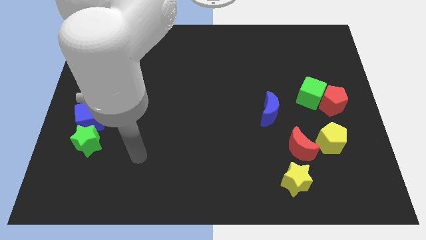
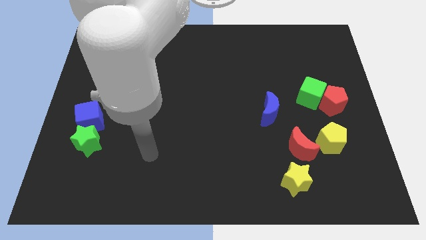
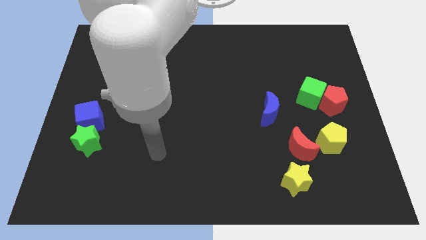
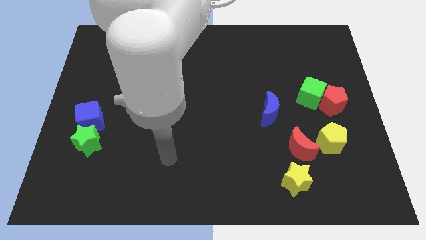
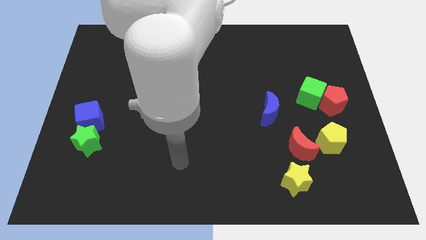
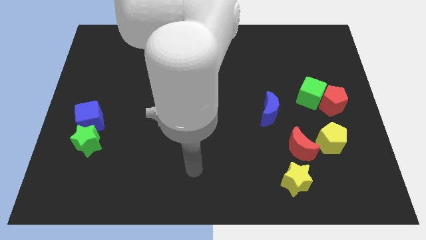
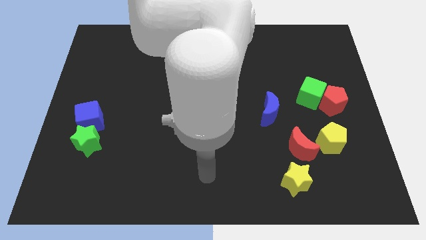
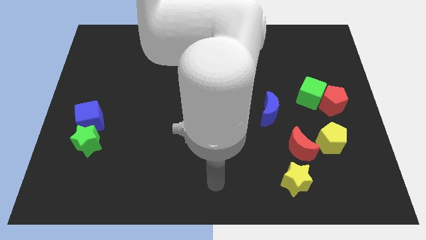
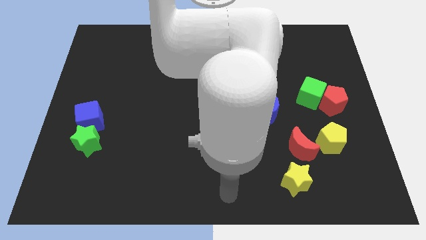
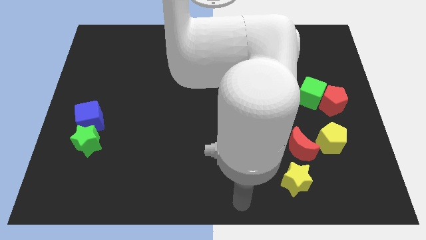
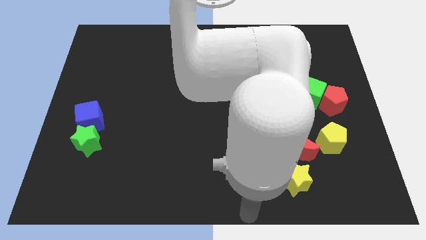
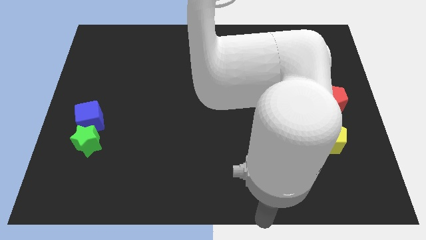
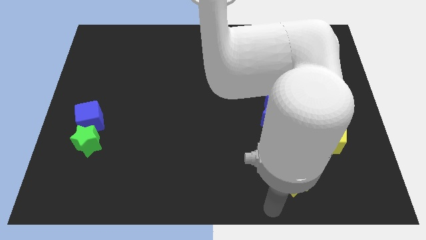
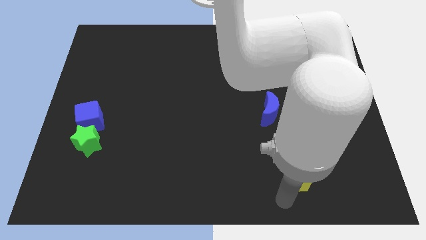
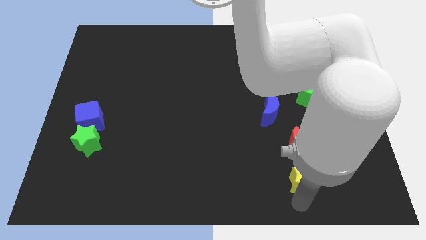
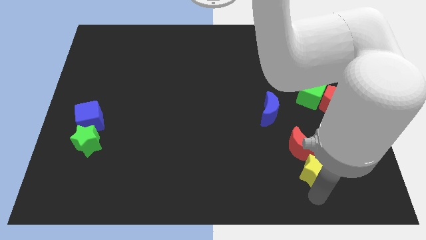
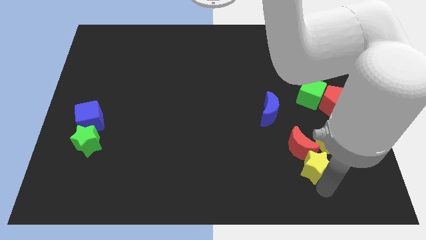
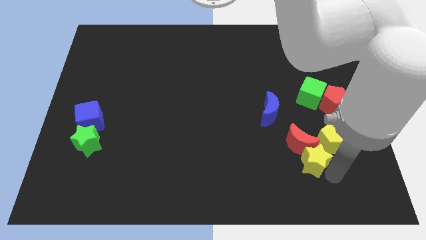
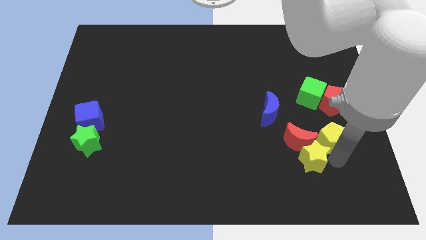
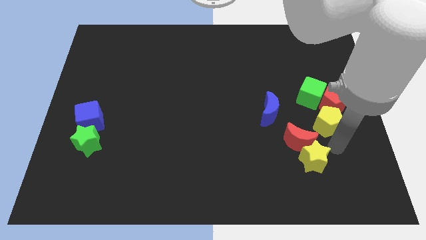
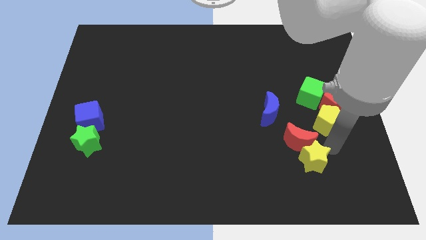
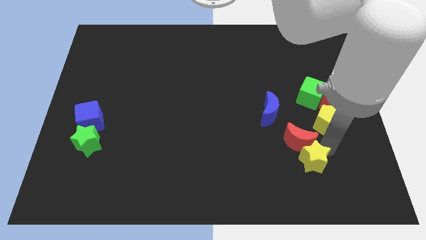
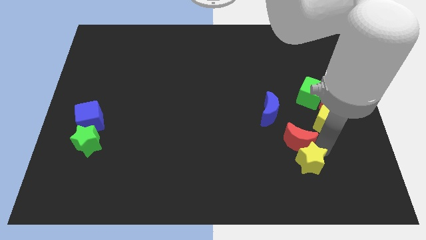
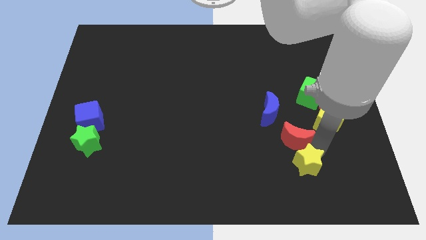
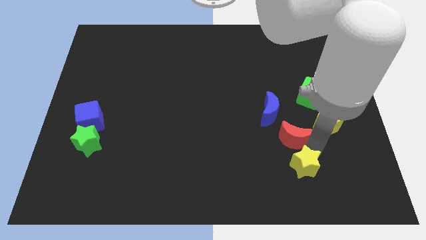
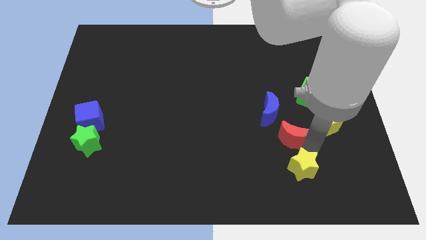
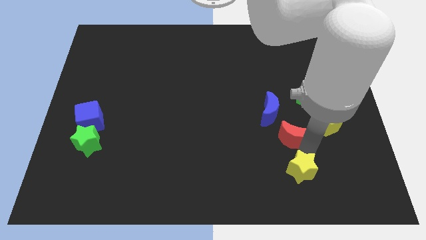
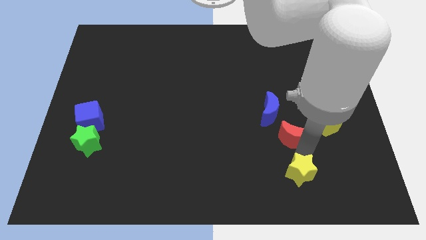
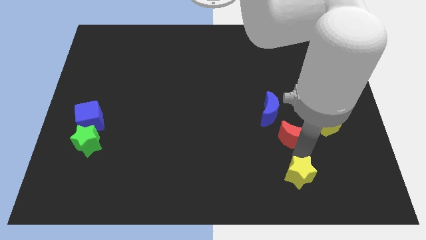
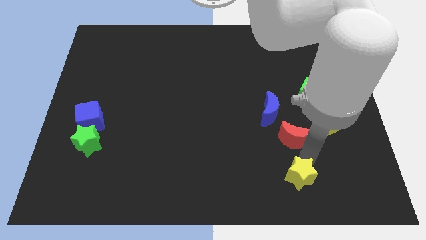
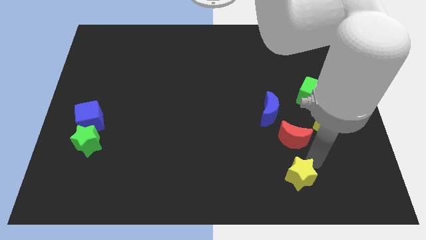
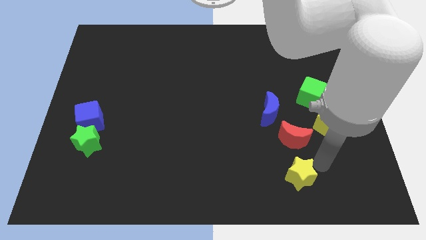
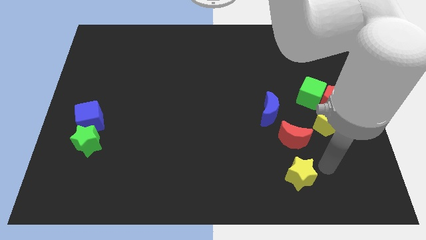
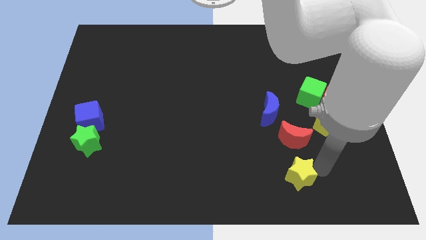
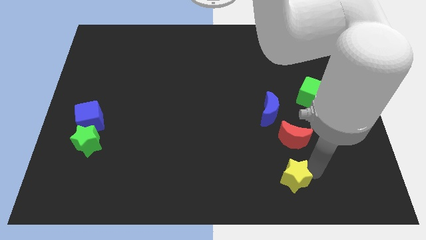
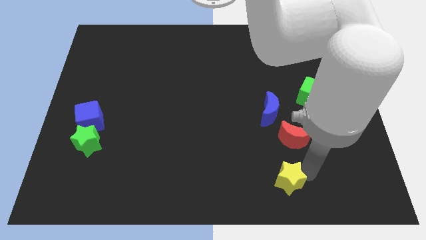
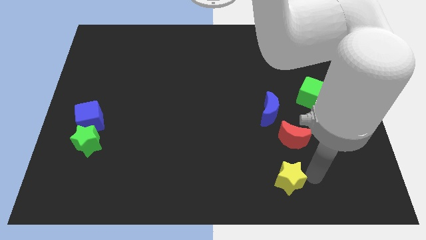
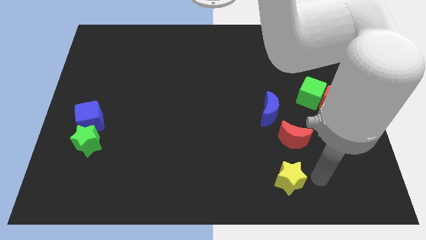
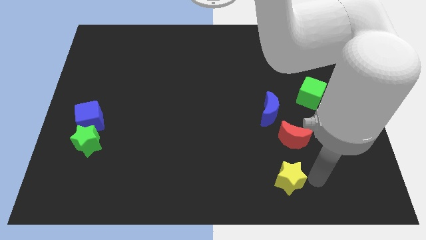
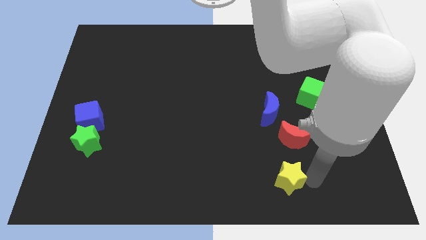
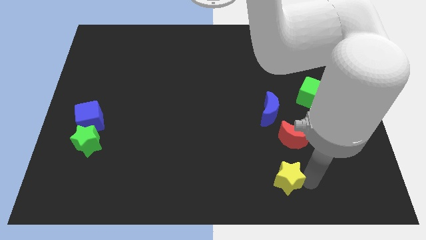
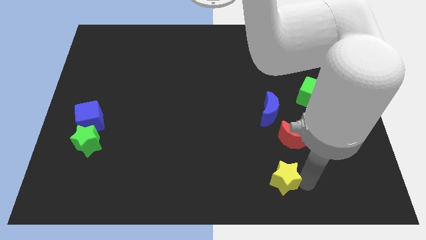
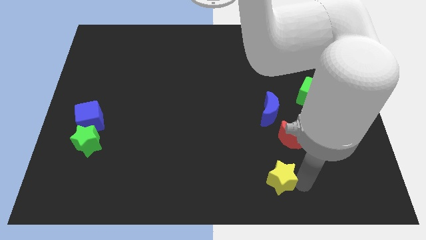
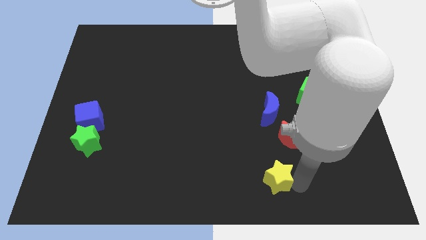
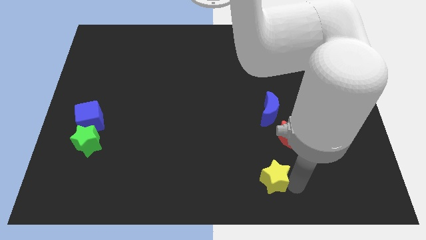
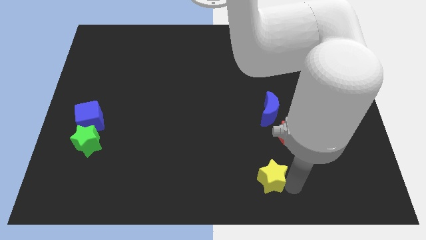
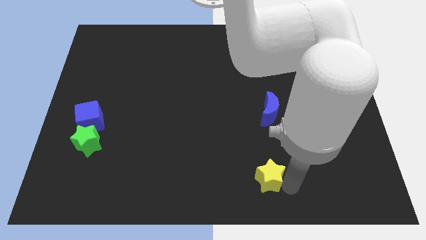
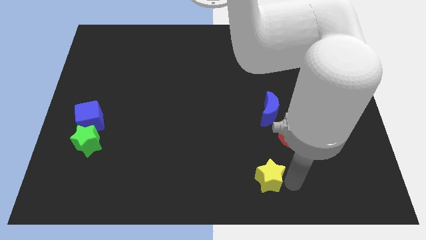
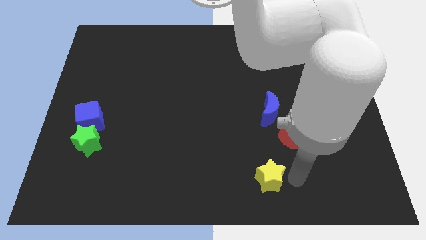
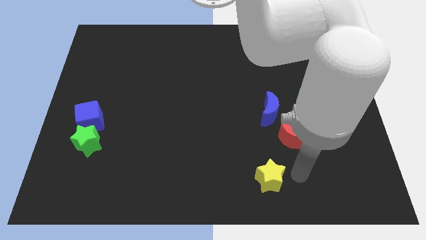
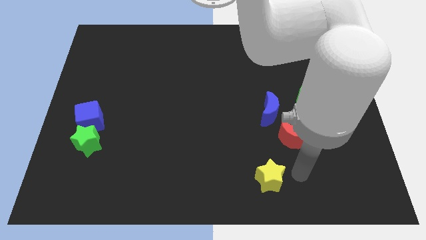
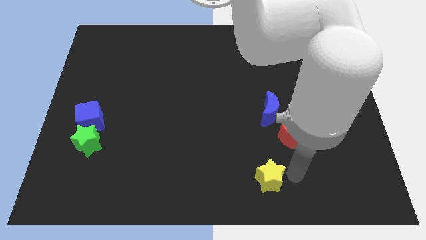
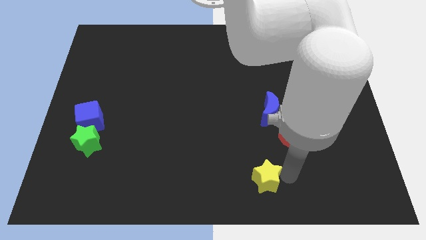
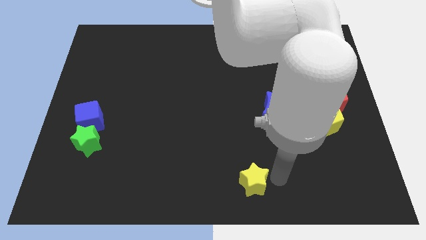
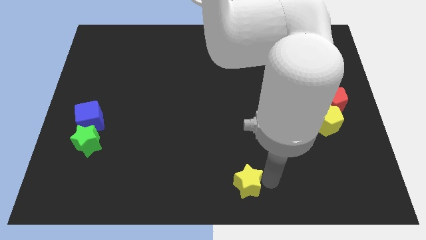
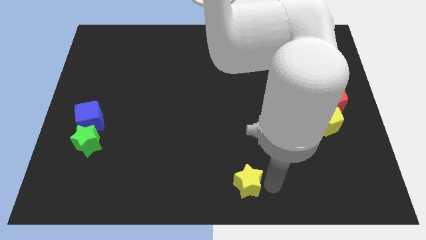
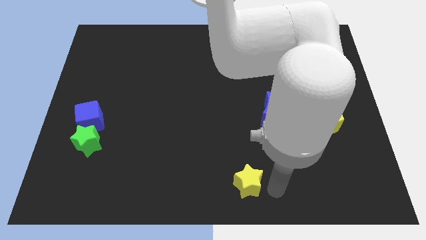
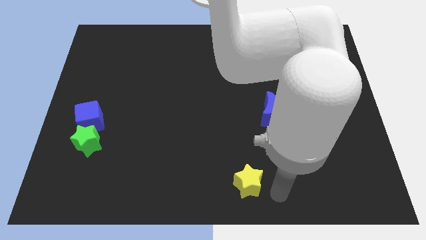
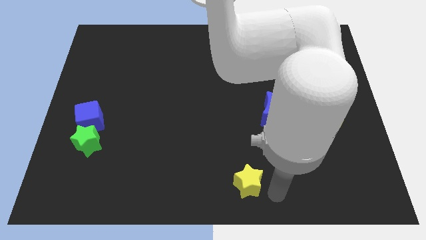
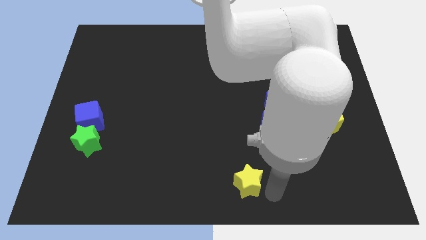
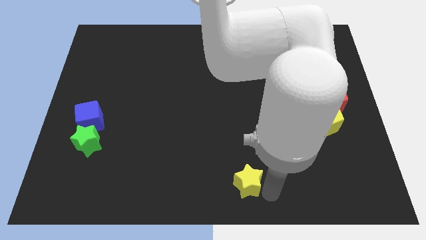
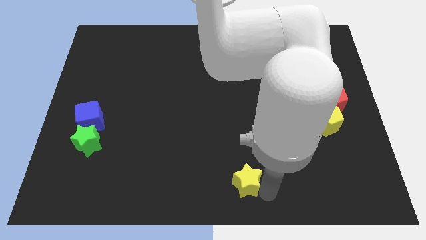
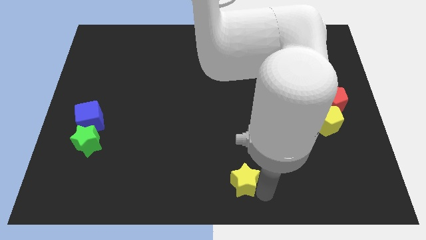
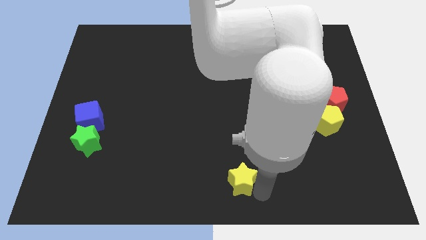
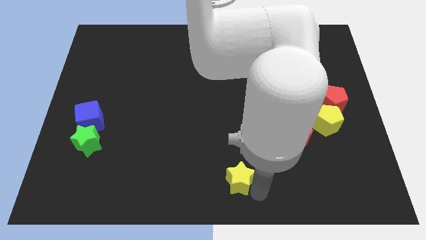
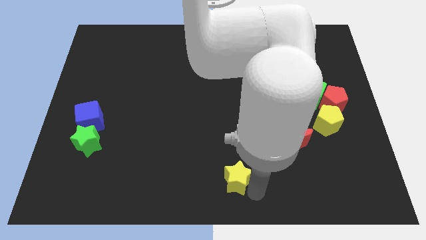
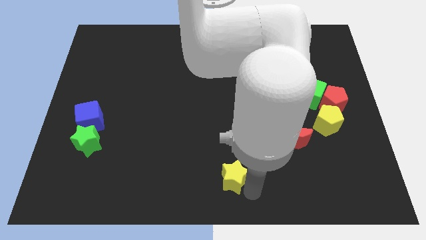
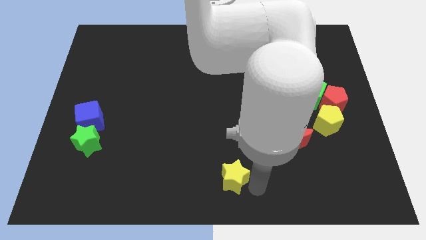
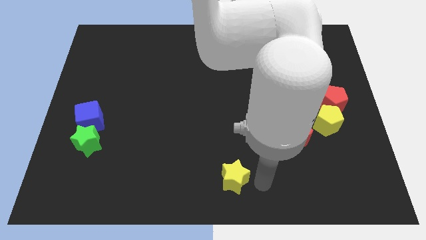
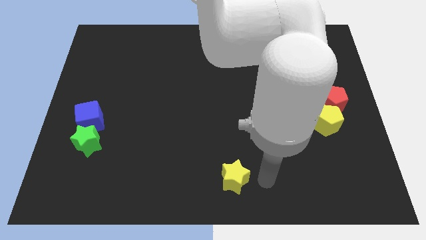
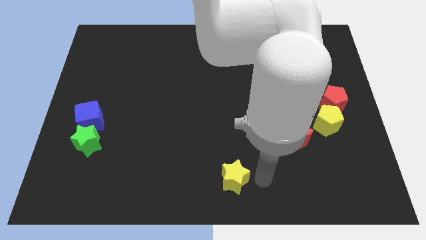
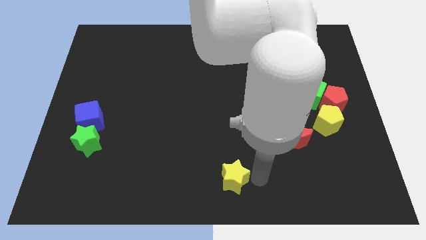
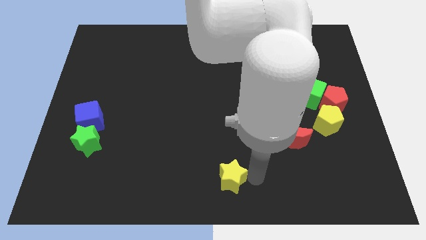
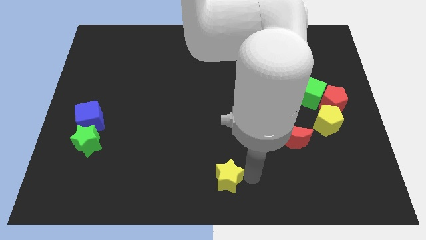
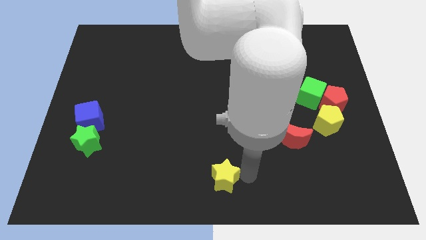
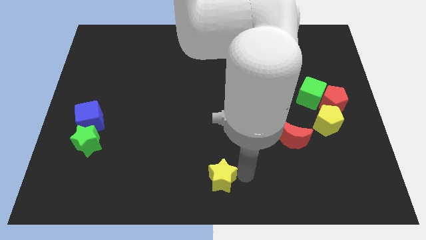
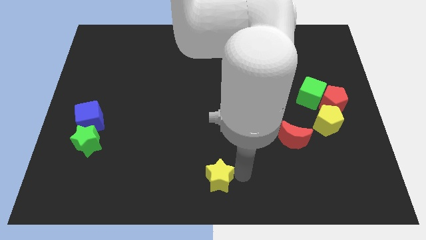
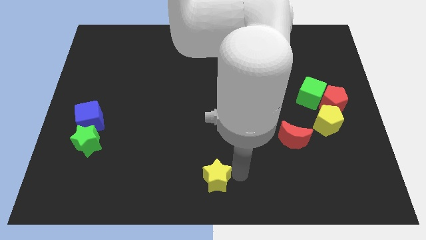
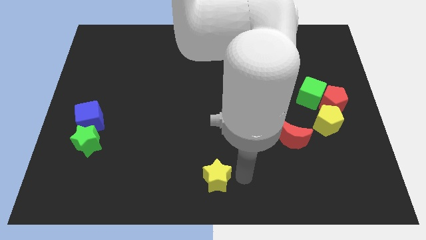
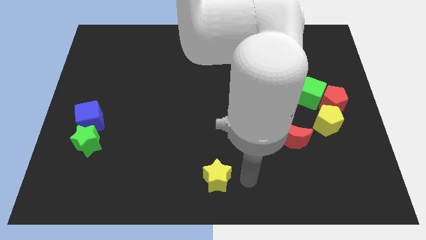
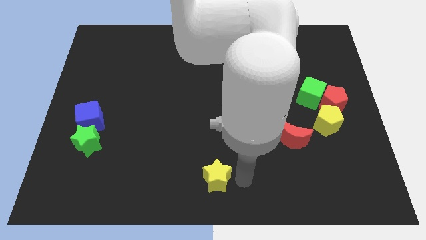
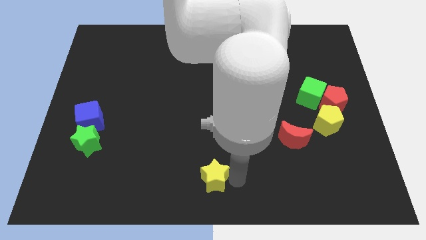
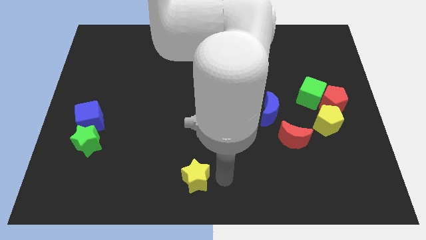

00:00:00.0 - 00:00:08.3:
push the yellow star left
